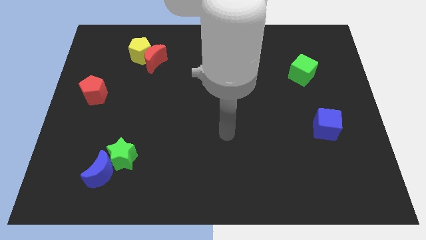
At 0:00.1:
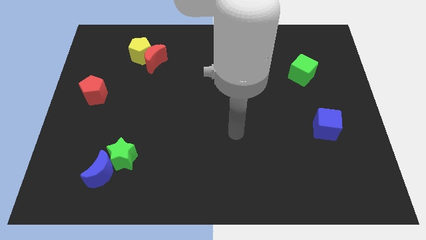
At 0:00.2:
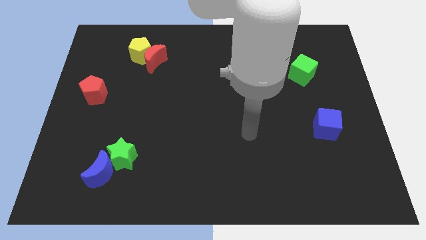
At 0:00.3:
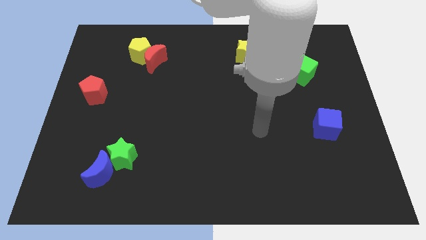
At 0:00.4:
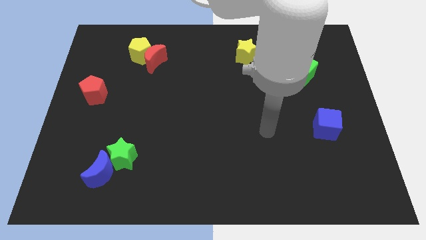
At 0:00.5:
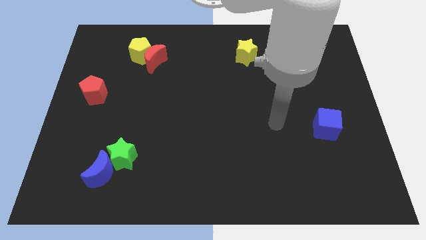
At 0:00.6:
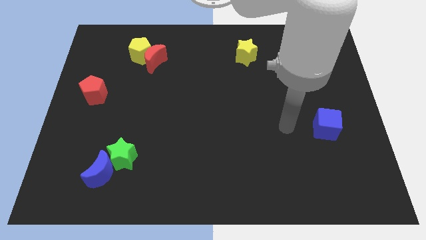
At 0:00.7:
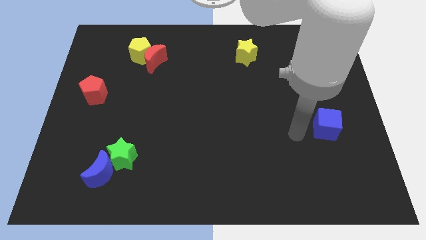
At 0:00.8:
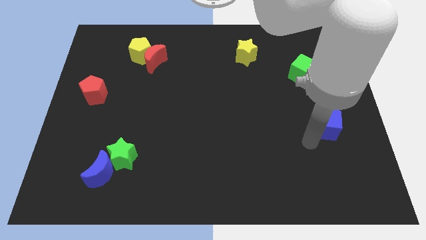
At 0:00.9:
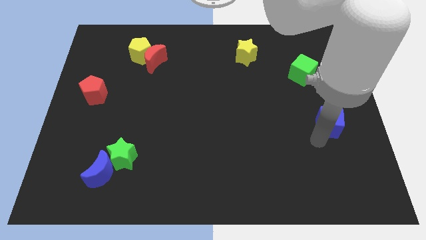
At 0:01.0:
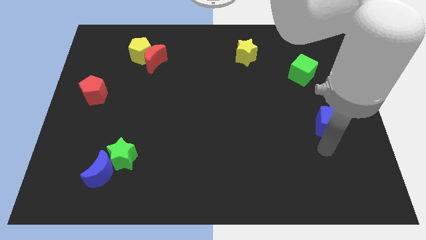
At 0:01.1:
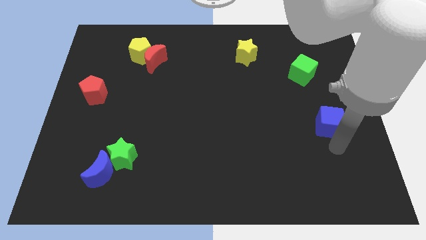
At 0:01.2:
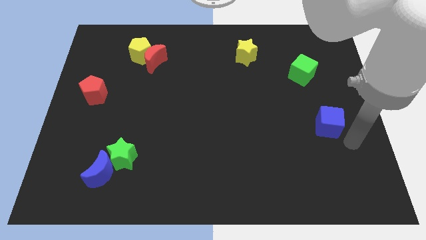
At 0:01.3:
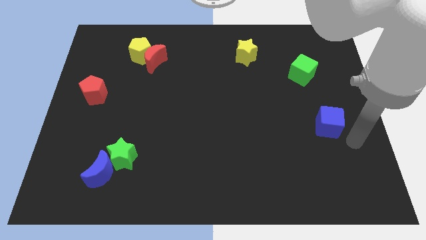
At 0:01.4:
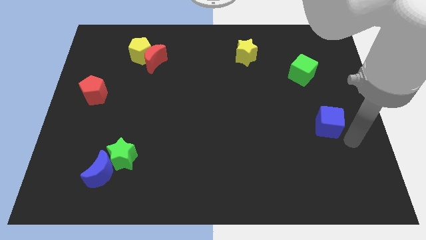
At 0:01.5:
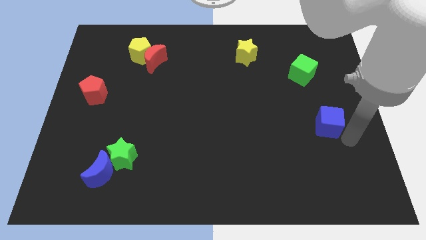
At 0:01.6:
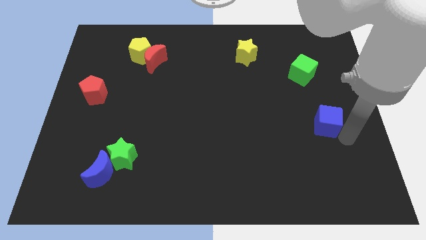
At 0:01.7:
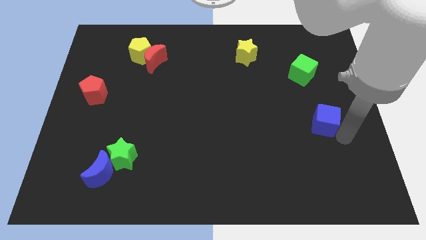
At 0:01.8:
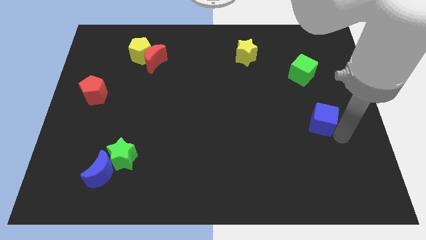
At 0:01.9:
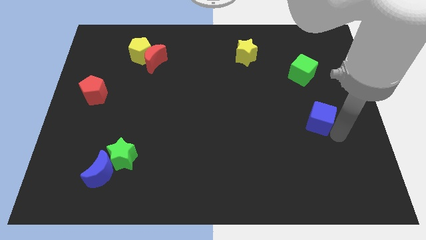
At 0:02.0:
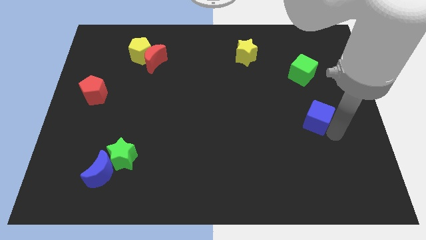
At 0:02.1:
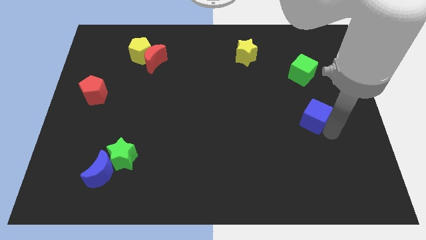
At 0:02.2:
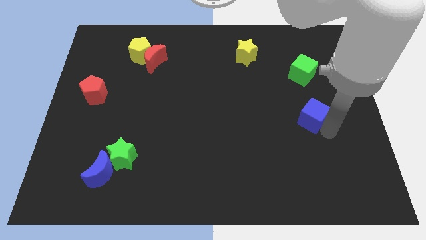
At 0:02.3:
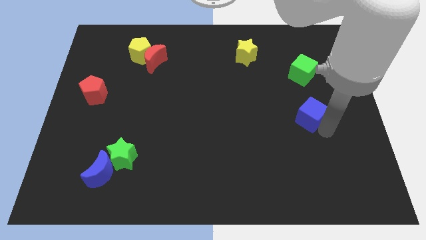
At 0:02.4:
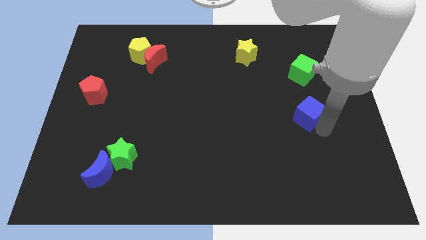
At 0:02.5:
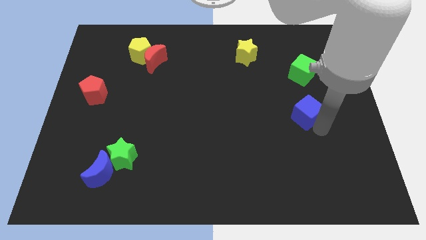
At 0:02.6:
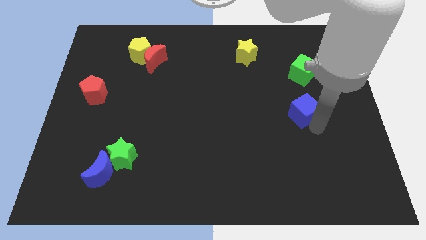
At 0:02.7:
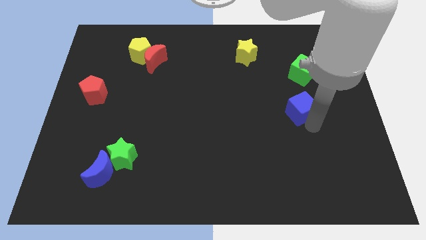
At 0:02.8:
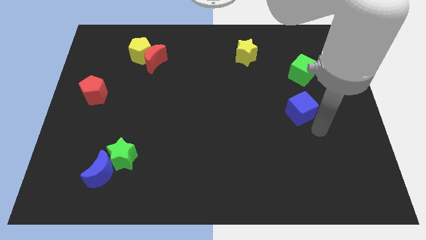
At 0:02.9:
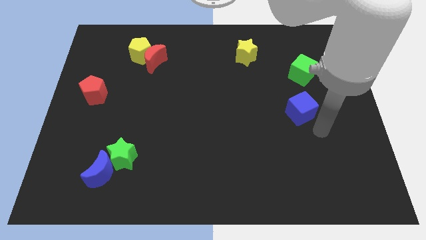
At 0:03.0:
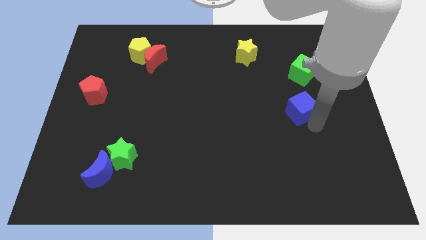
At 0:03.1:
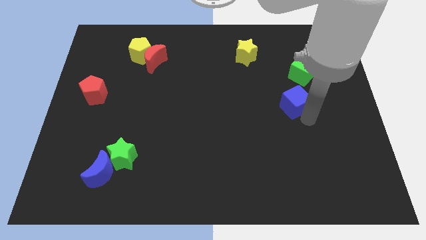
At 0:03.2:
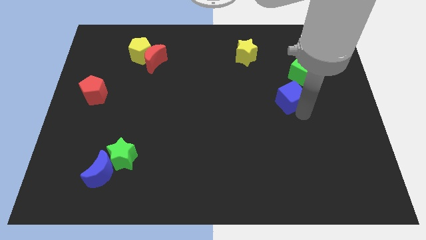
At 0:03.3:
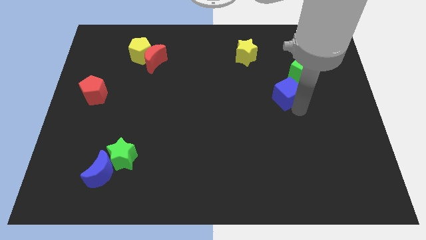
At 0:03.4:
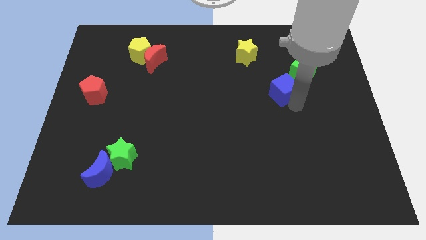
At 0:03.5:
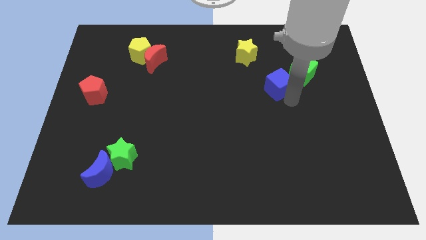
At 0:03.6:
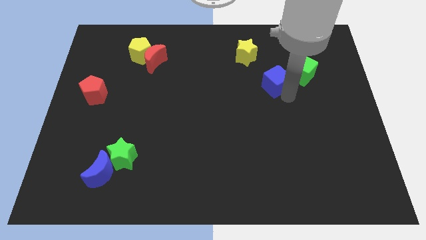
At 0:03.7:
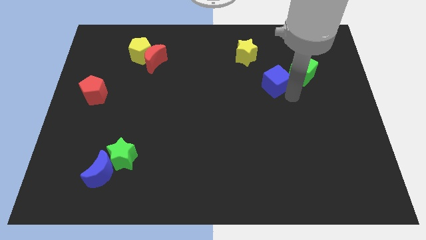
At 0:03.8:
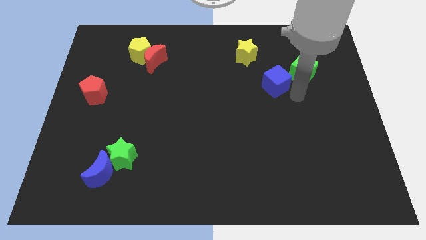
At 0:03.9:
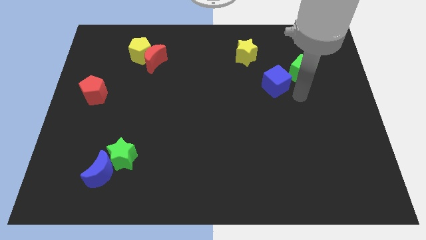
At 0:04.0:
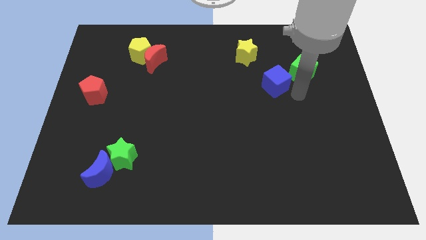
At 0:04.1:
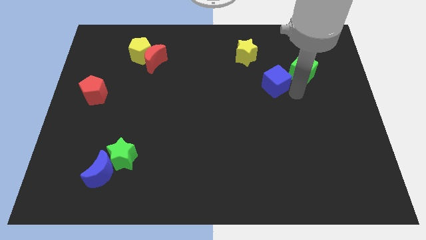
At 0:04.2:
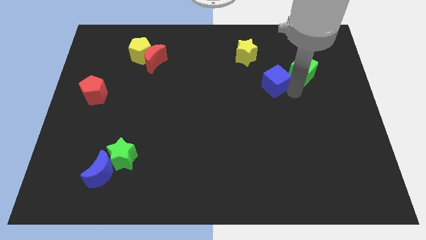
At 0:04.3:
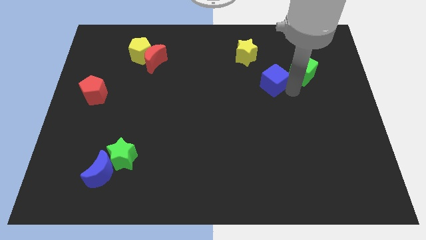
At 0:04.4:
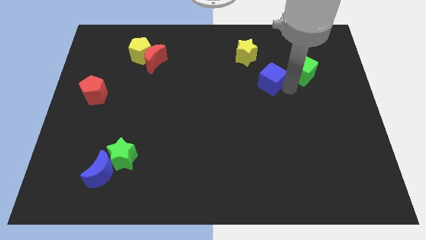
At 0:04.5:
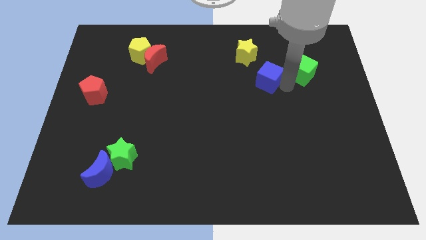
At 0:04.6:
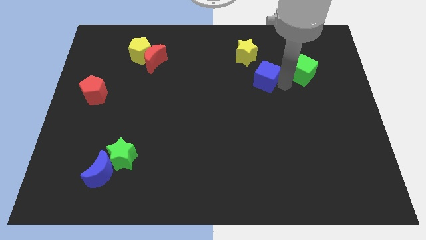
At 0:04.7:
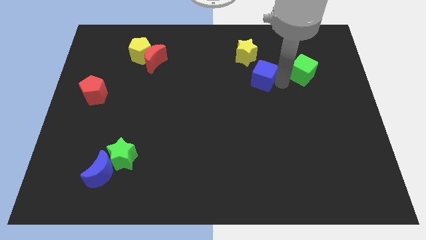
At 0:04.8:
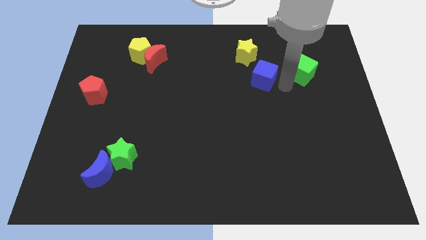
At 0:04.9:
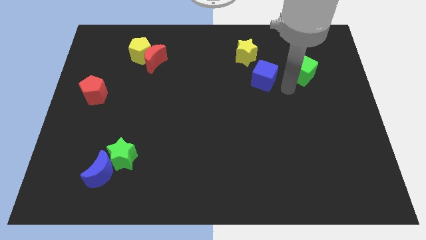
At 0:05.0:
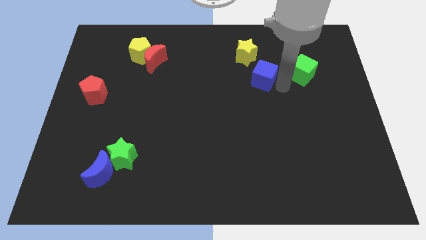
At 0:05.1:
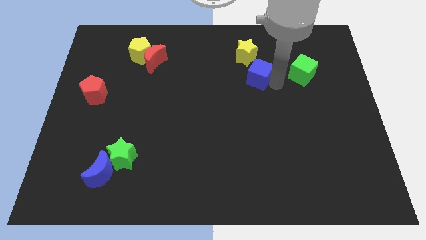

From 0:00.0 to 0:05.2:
slide the blue cube up and then to the left

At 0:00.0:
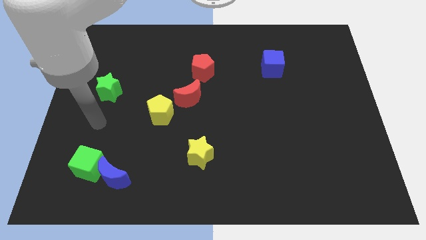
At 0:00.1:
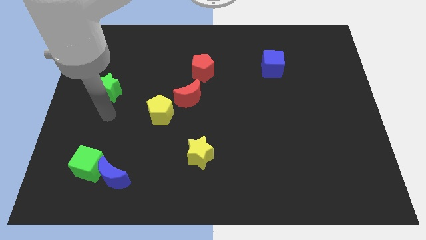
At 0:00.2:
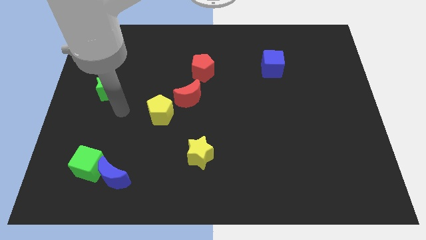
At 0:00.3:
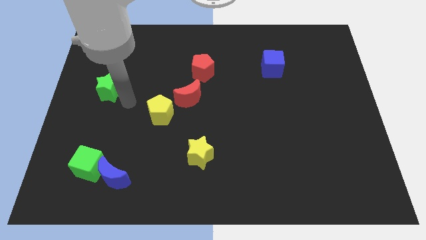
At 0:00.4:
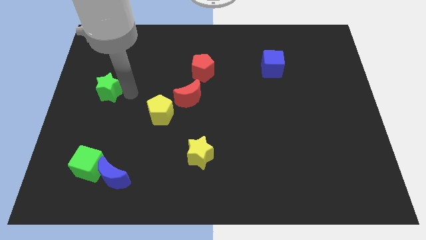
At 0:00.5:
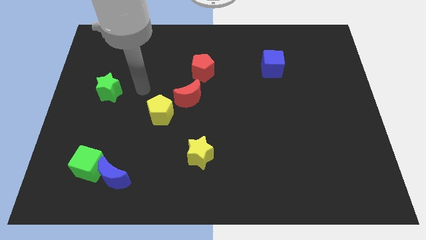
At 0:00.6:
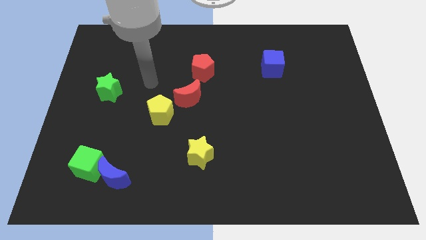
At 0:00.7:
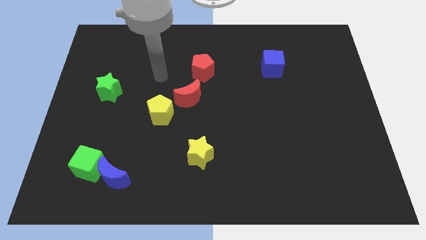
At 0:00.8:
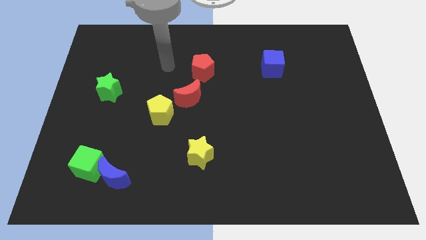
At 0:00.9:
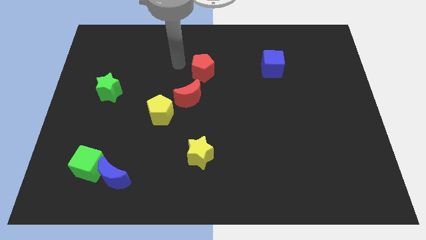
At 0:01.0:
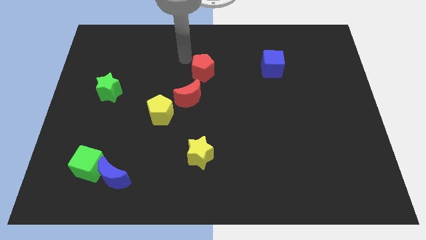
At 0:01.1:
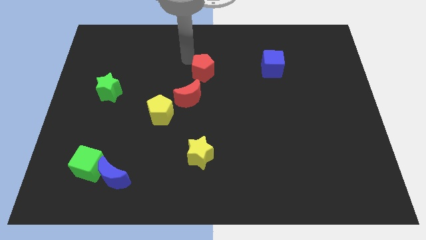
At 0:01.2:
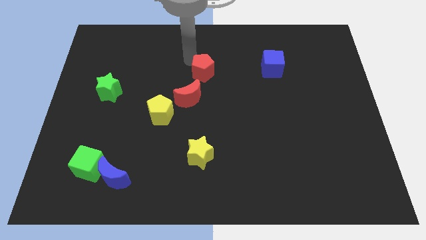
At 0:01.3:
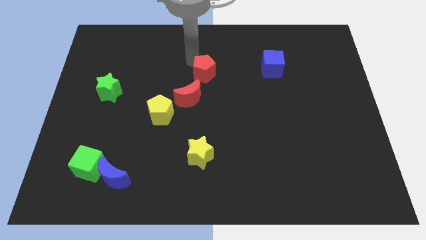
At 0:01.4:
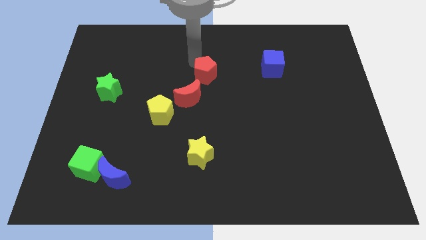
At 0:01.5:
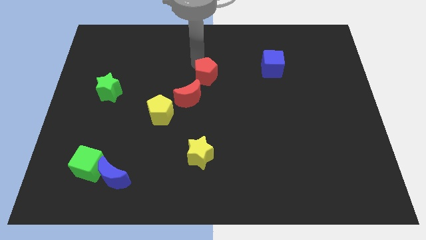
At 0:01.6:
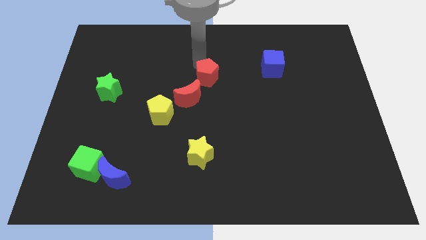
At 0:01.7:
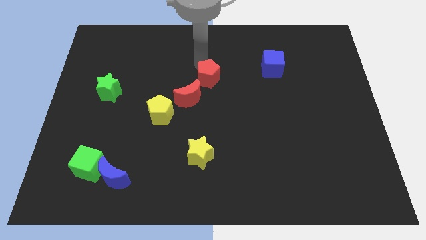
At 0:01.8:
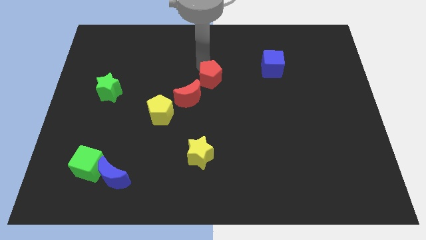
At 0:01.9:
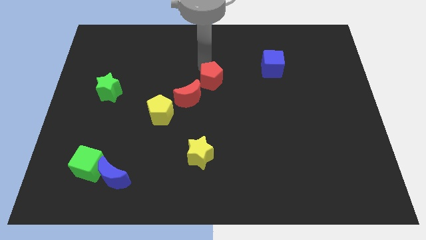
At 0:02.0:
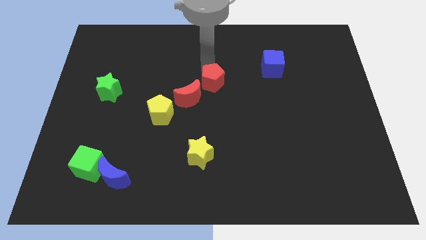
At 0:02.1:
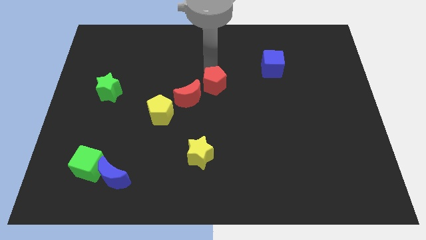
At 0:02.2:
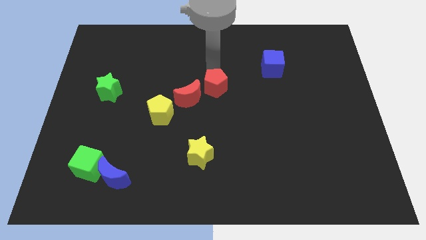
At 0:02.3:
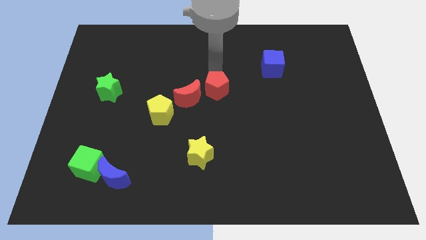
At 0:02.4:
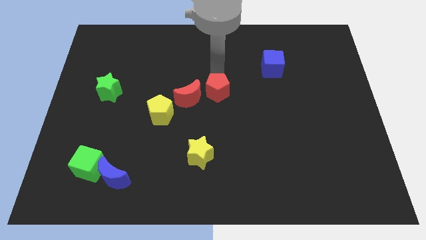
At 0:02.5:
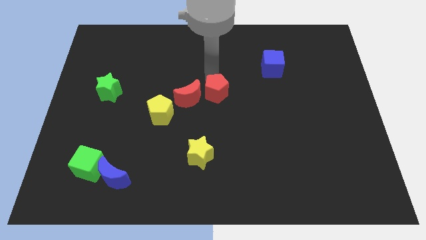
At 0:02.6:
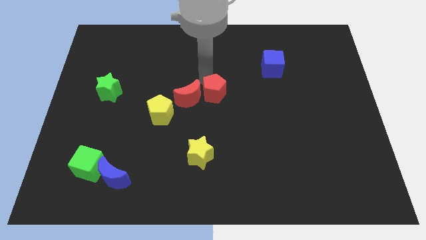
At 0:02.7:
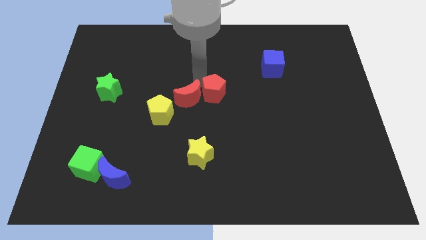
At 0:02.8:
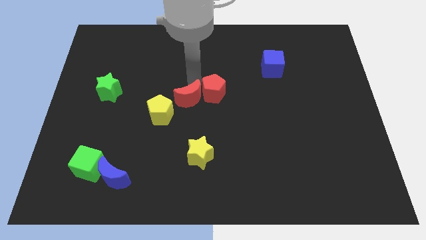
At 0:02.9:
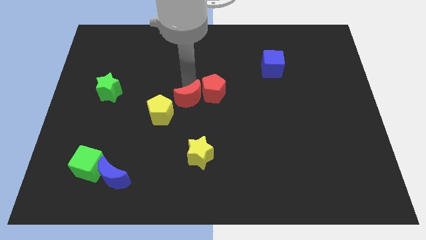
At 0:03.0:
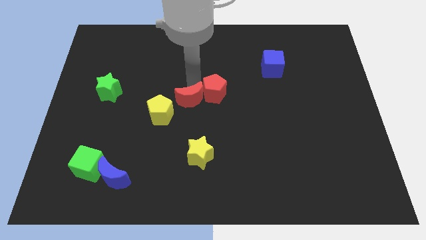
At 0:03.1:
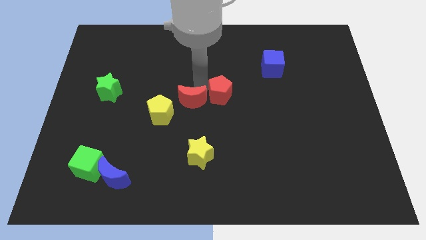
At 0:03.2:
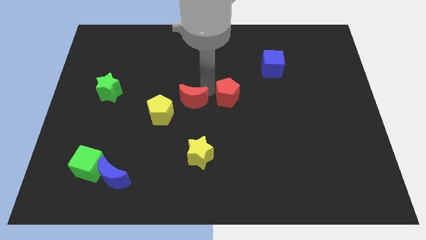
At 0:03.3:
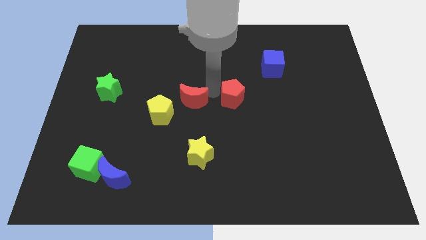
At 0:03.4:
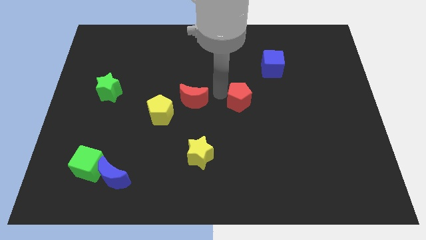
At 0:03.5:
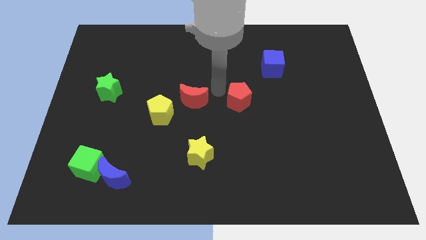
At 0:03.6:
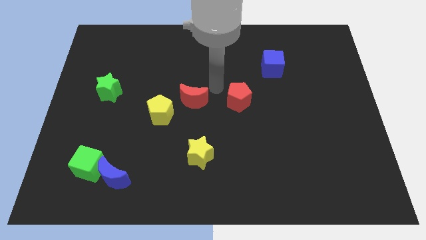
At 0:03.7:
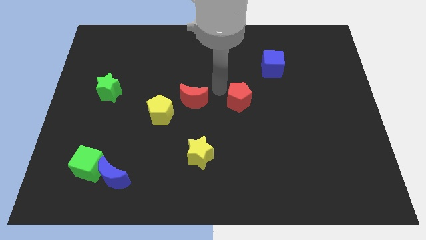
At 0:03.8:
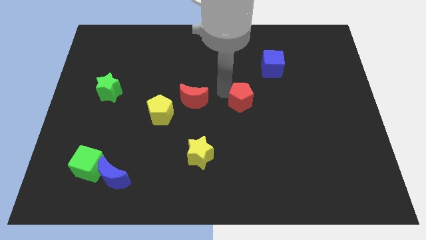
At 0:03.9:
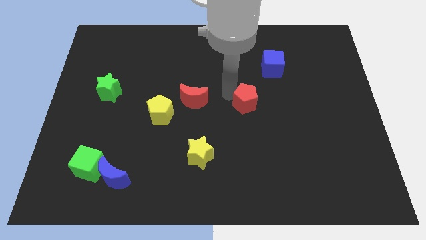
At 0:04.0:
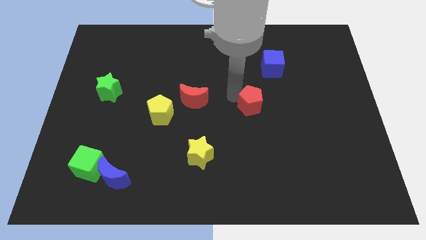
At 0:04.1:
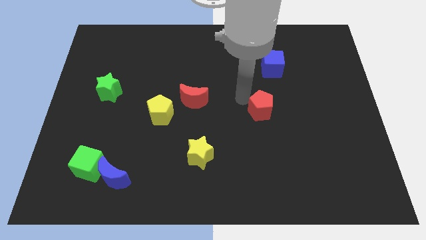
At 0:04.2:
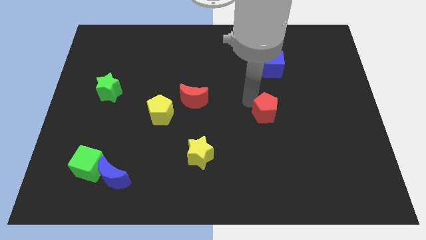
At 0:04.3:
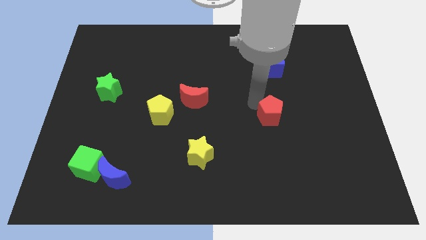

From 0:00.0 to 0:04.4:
slide the red pentagon down and to the right
